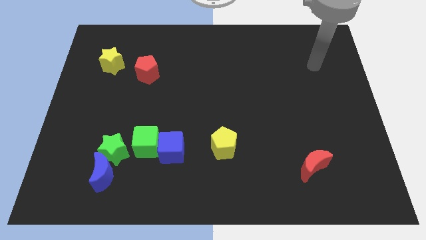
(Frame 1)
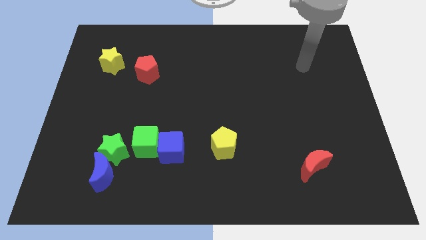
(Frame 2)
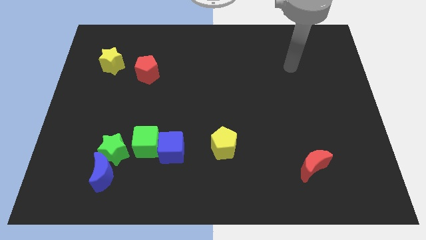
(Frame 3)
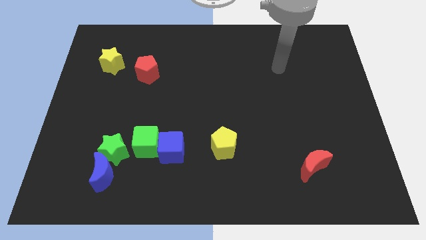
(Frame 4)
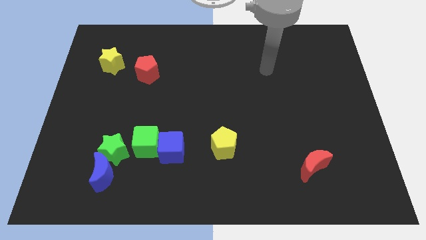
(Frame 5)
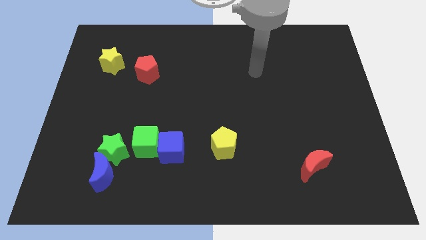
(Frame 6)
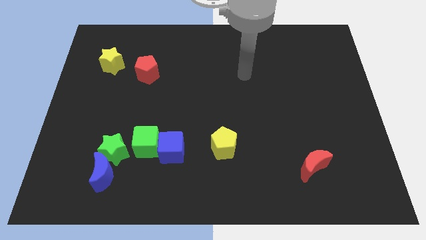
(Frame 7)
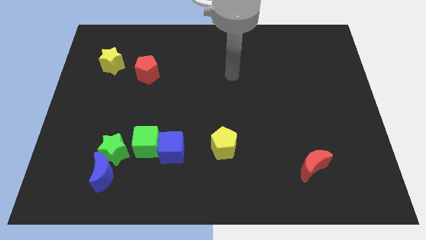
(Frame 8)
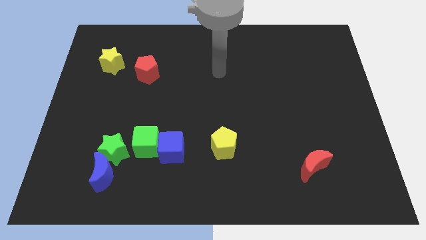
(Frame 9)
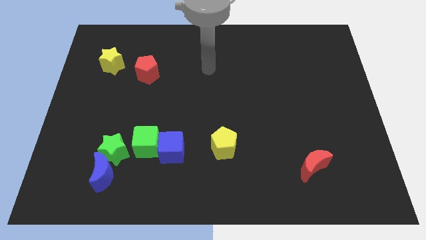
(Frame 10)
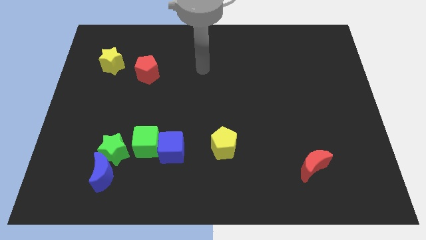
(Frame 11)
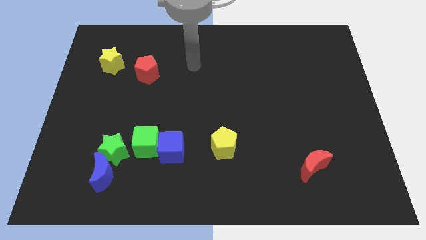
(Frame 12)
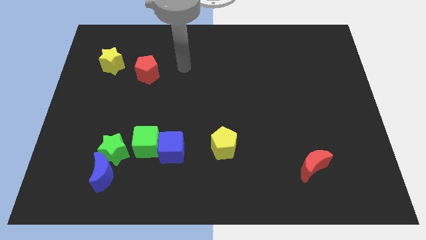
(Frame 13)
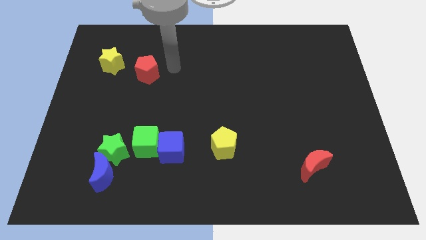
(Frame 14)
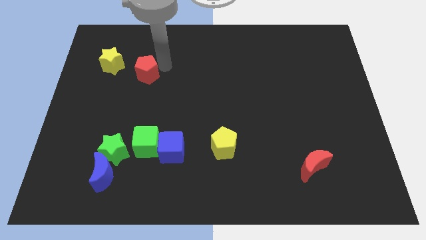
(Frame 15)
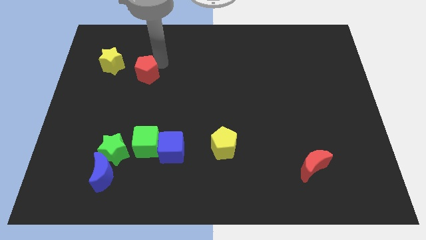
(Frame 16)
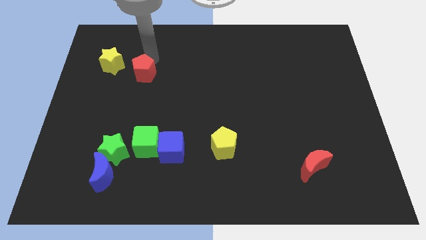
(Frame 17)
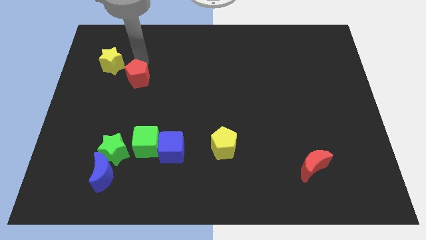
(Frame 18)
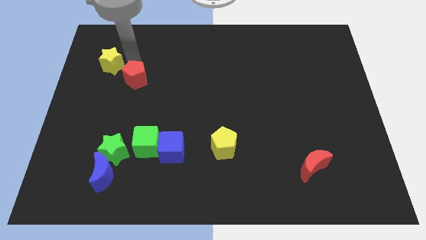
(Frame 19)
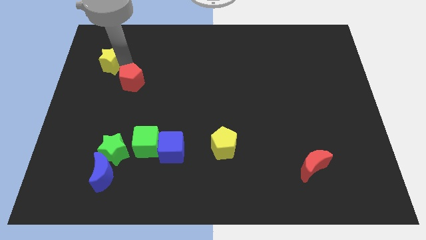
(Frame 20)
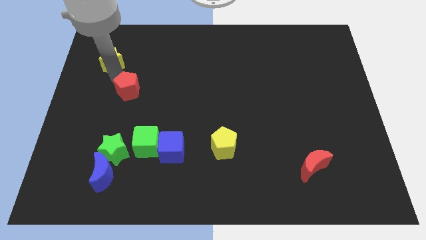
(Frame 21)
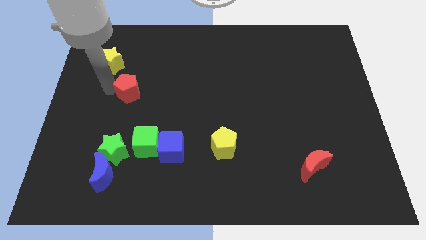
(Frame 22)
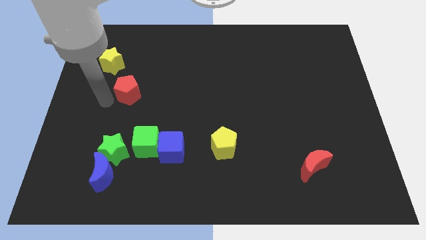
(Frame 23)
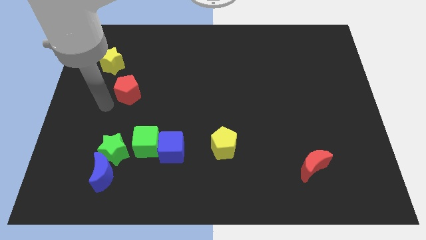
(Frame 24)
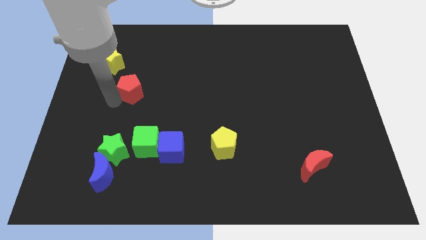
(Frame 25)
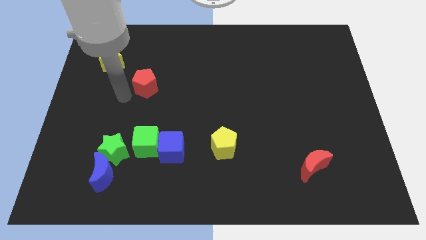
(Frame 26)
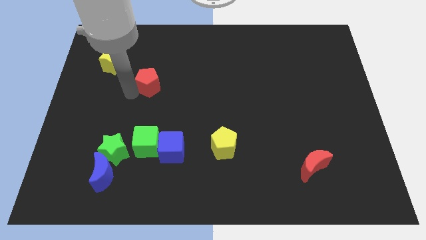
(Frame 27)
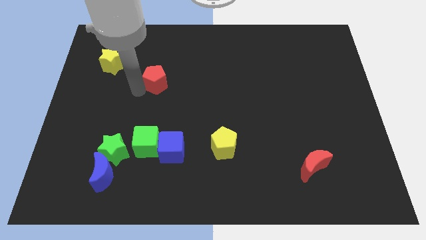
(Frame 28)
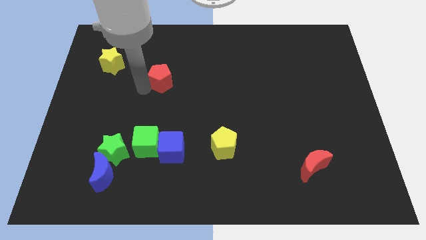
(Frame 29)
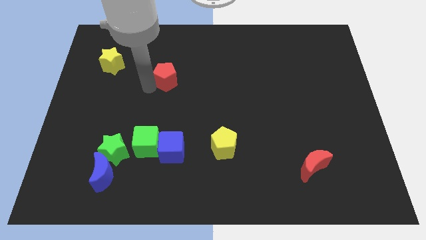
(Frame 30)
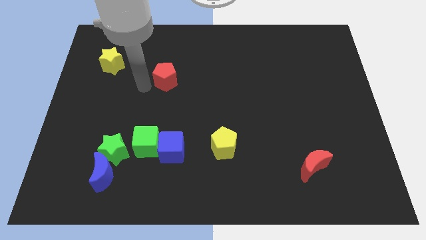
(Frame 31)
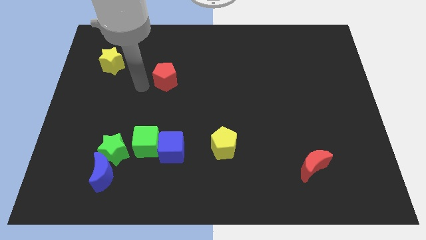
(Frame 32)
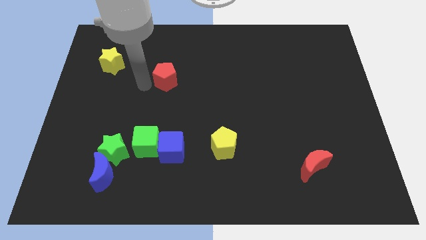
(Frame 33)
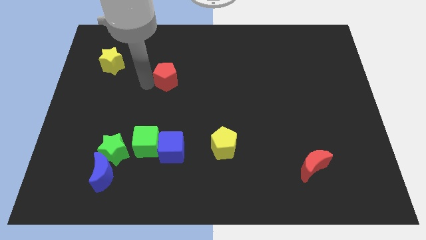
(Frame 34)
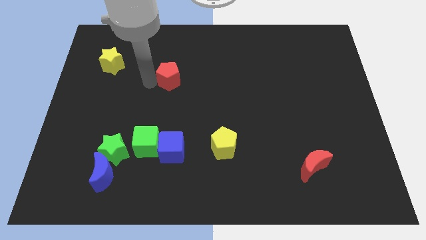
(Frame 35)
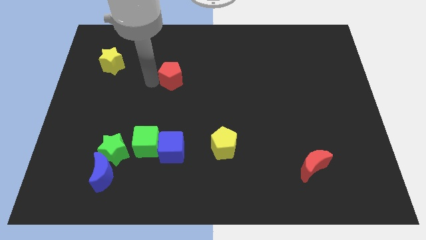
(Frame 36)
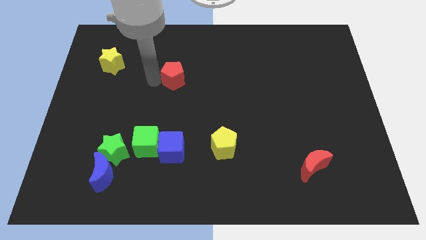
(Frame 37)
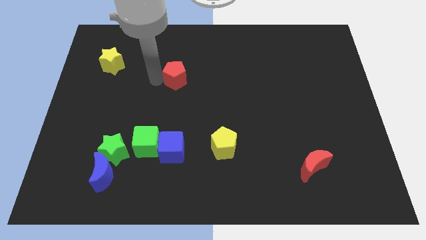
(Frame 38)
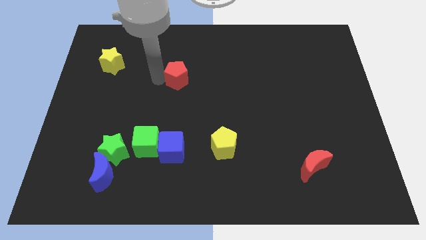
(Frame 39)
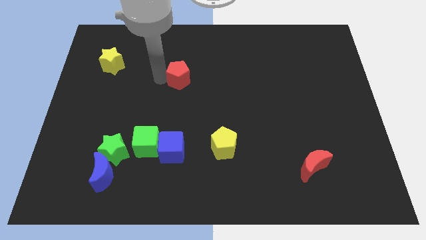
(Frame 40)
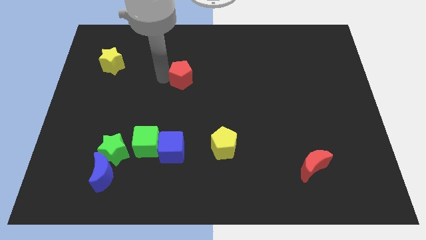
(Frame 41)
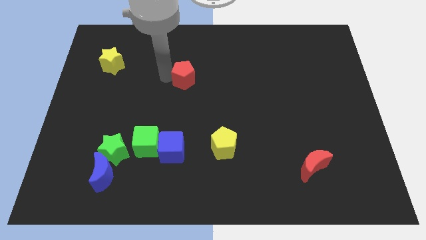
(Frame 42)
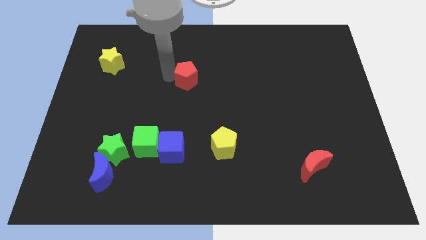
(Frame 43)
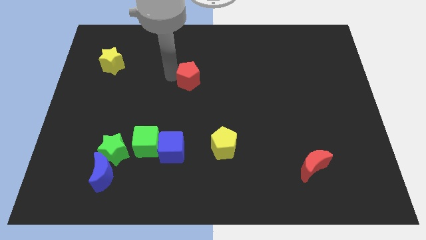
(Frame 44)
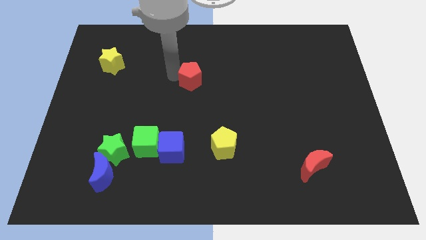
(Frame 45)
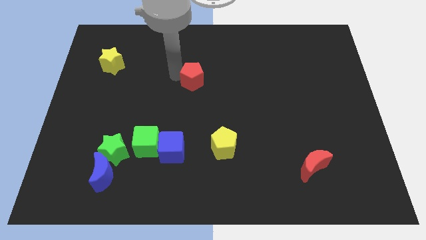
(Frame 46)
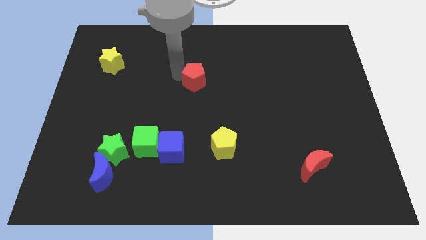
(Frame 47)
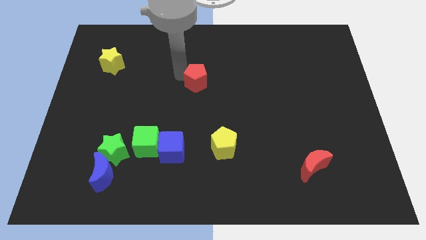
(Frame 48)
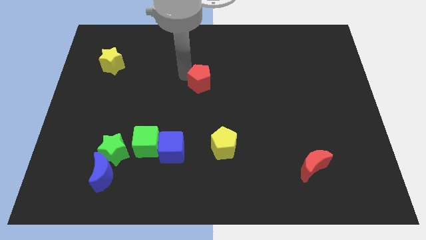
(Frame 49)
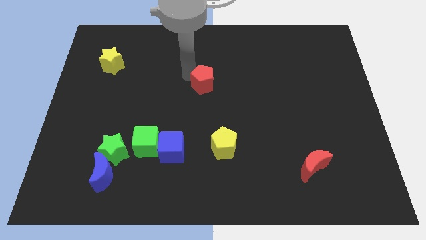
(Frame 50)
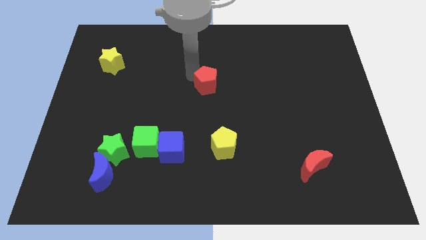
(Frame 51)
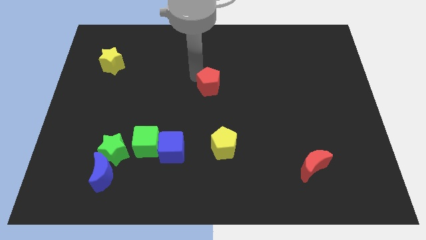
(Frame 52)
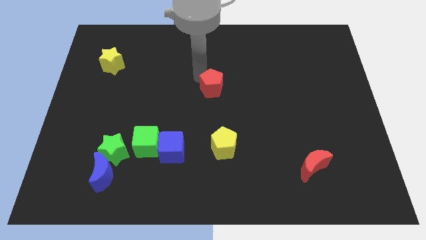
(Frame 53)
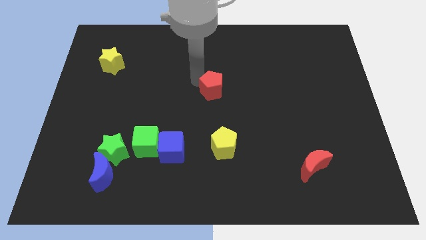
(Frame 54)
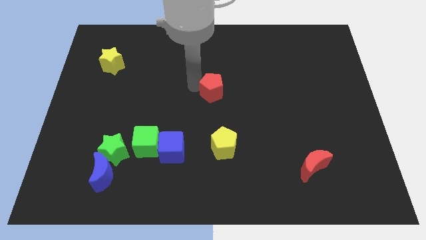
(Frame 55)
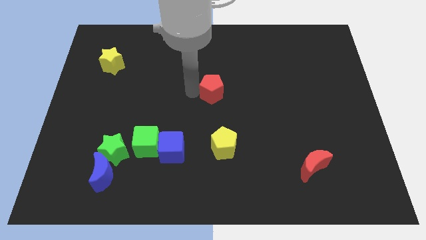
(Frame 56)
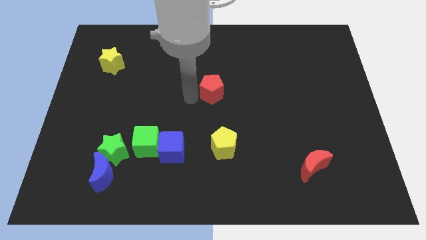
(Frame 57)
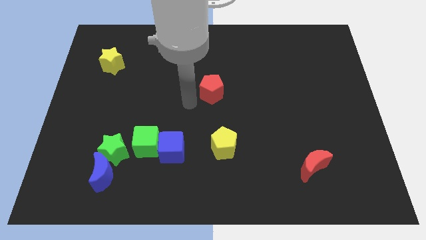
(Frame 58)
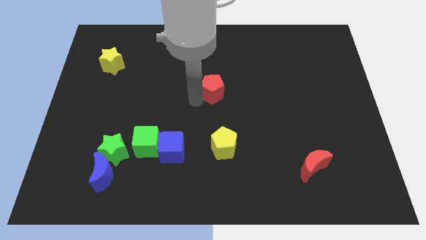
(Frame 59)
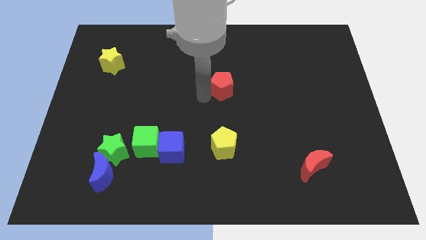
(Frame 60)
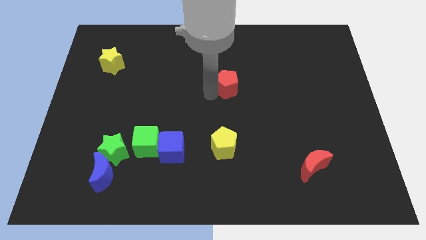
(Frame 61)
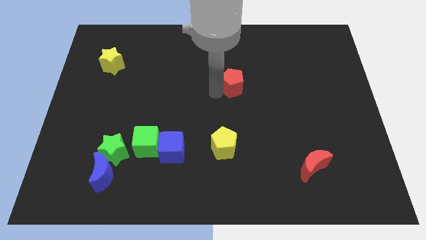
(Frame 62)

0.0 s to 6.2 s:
push the red pentagon to the right

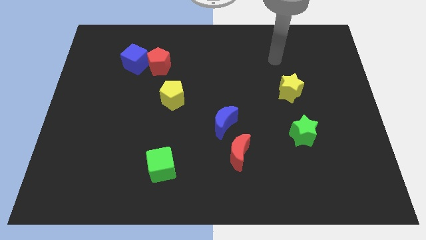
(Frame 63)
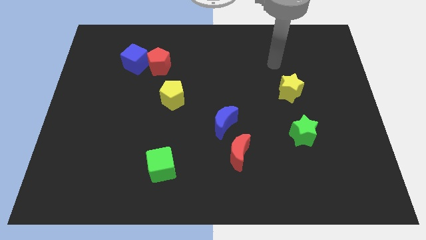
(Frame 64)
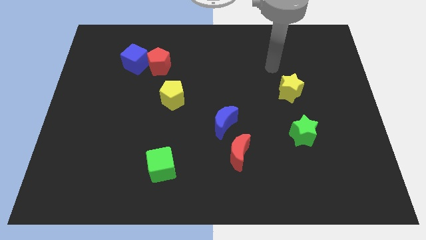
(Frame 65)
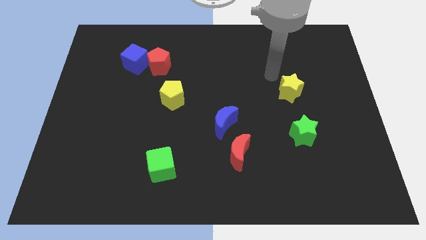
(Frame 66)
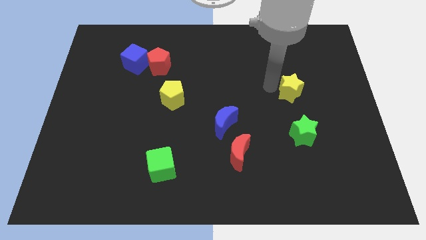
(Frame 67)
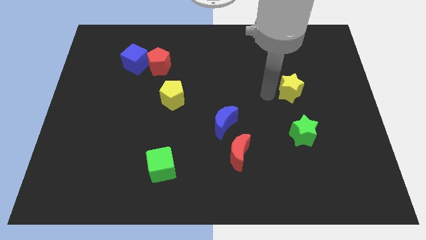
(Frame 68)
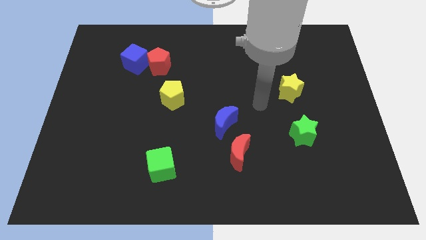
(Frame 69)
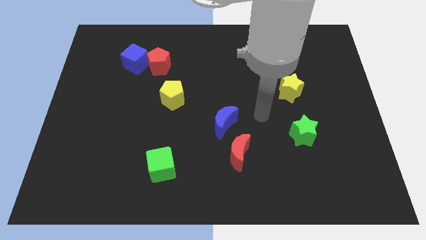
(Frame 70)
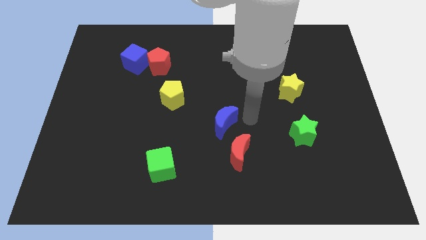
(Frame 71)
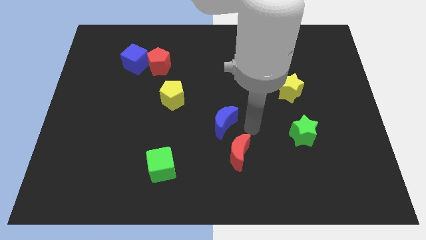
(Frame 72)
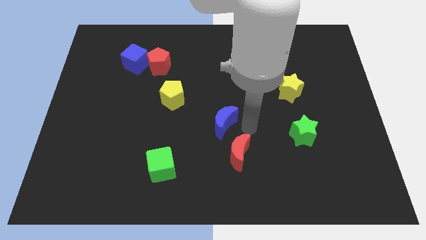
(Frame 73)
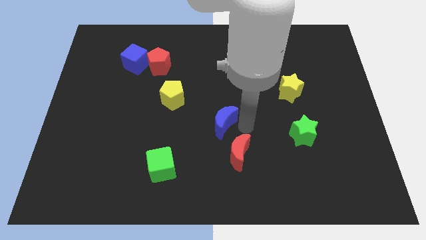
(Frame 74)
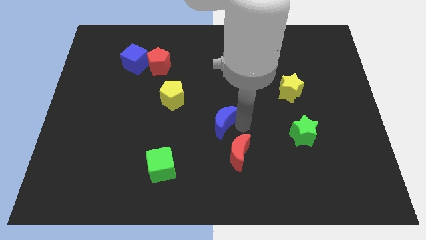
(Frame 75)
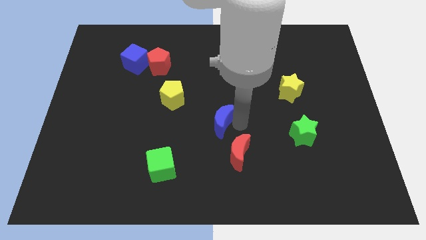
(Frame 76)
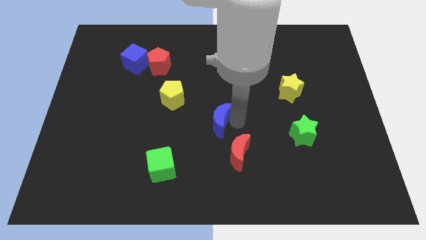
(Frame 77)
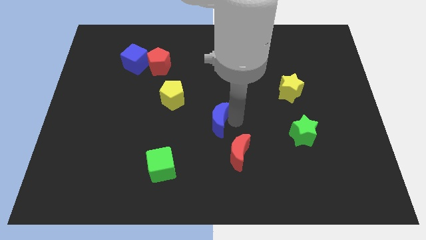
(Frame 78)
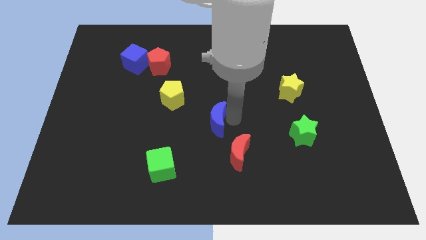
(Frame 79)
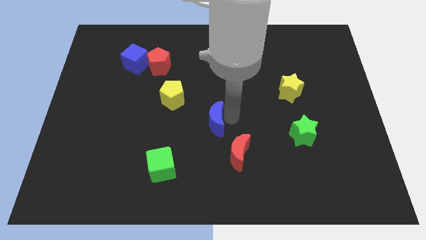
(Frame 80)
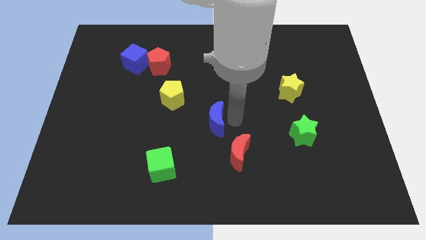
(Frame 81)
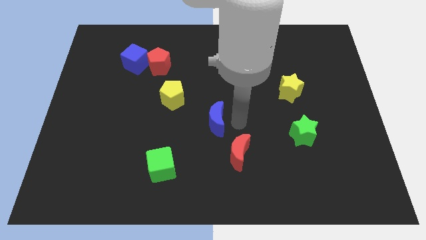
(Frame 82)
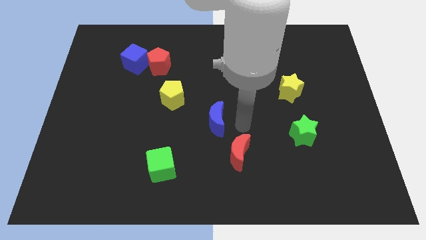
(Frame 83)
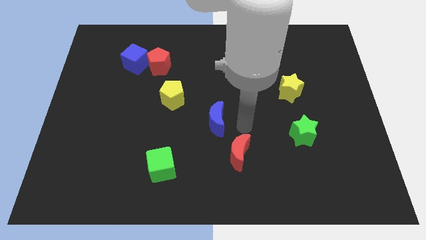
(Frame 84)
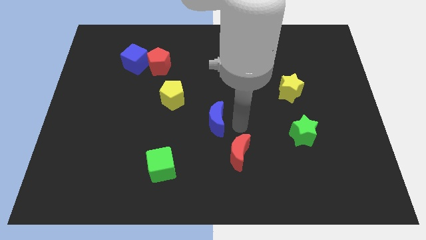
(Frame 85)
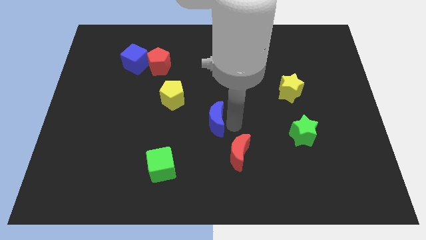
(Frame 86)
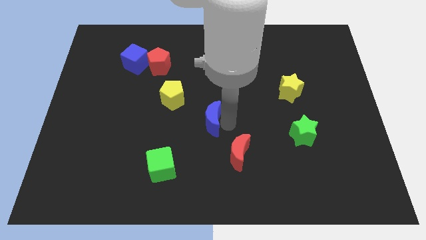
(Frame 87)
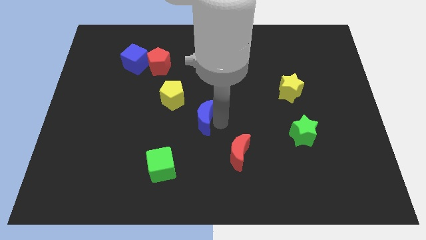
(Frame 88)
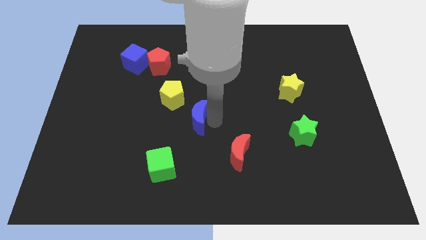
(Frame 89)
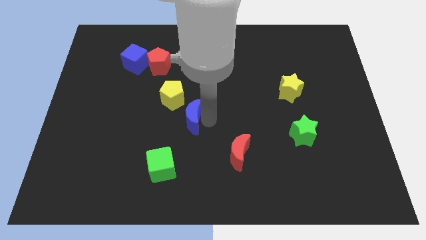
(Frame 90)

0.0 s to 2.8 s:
push the blue moon somewhat to the left
